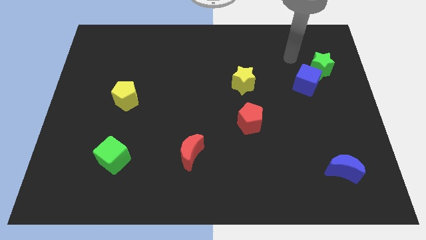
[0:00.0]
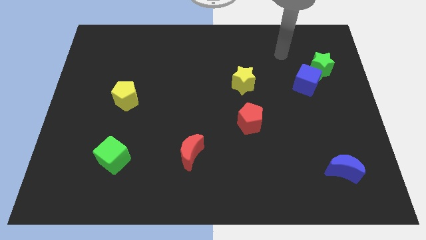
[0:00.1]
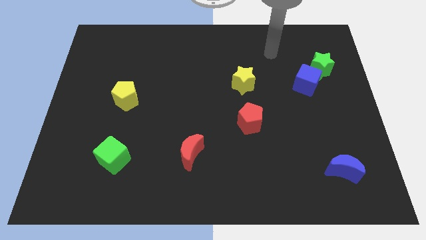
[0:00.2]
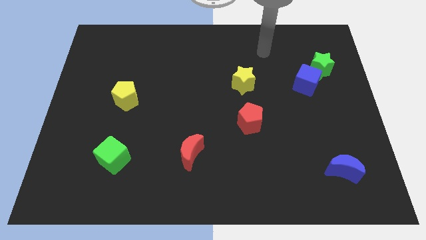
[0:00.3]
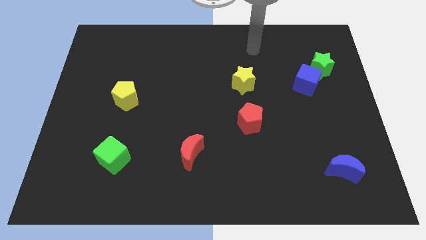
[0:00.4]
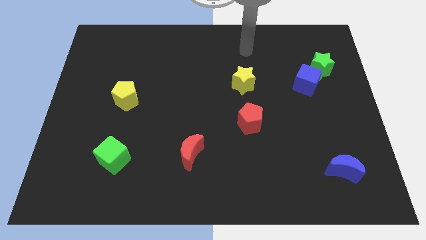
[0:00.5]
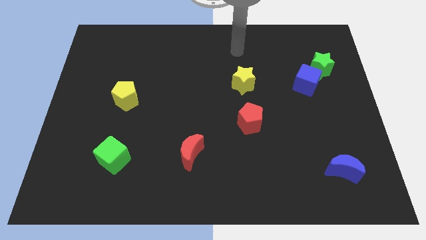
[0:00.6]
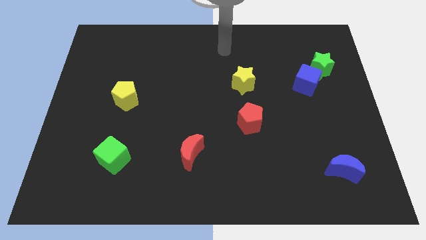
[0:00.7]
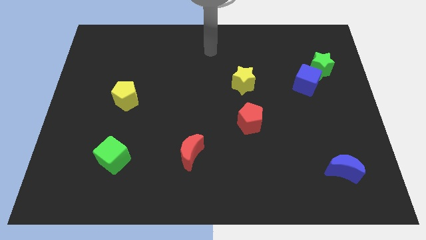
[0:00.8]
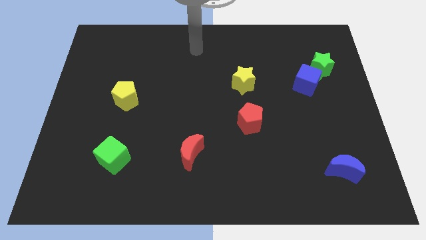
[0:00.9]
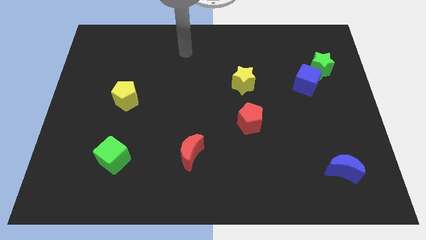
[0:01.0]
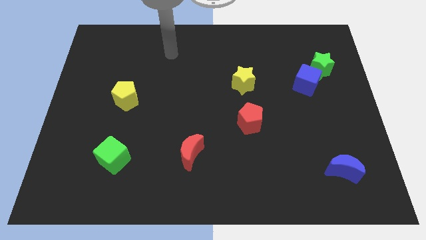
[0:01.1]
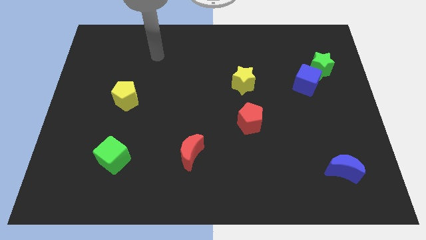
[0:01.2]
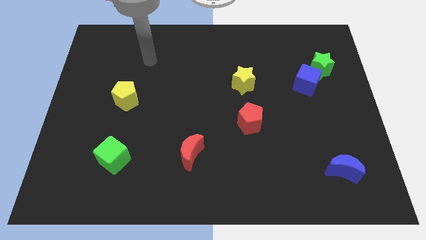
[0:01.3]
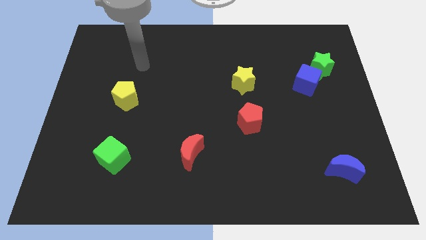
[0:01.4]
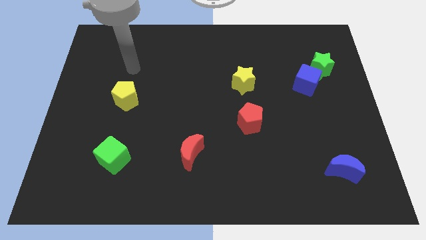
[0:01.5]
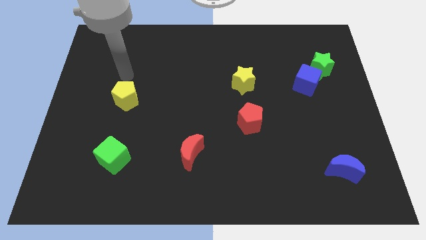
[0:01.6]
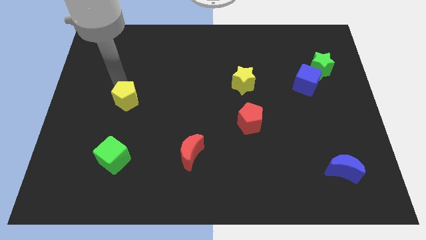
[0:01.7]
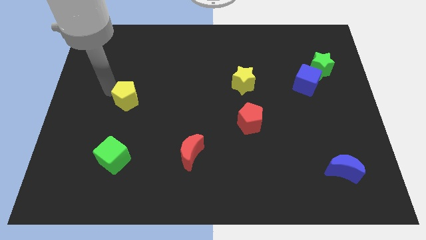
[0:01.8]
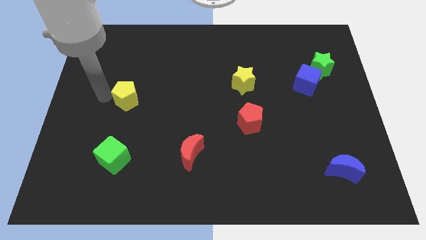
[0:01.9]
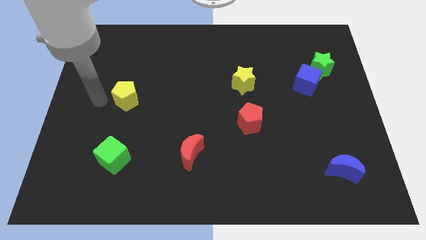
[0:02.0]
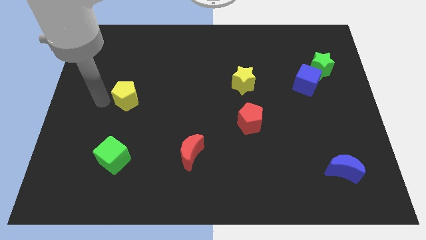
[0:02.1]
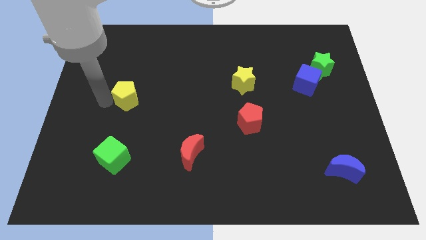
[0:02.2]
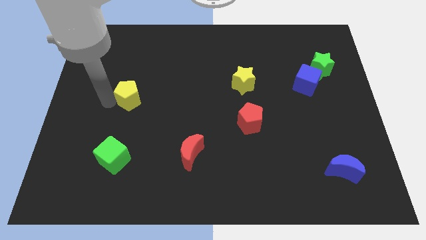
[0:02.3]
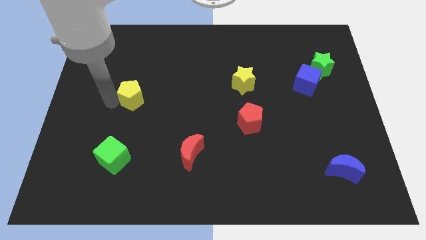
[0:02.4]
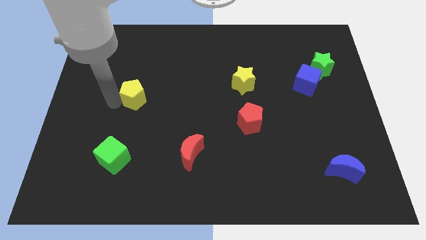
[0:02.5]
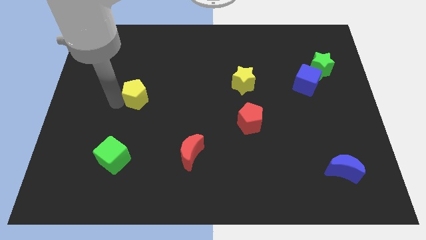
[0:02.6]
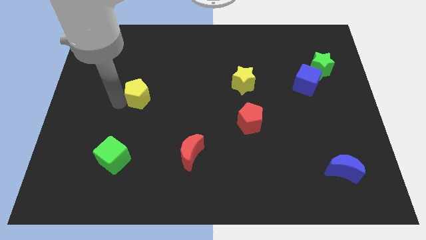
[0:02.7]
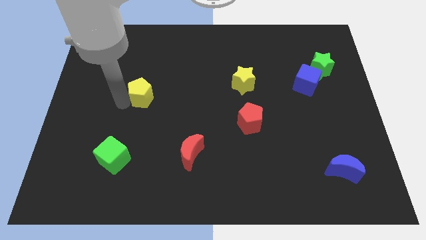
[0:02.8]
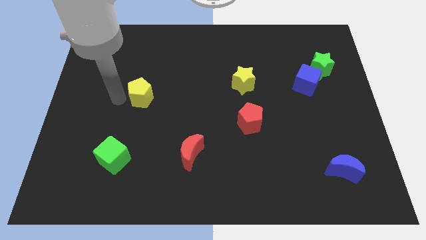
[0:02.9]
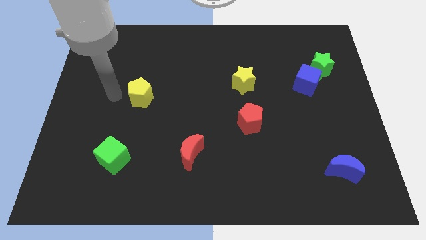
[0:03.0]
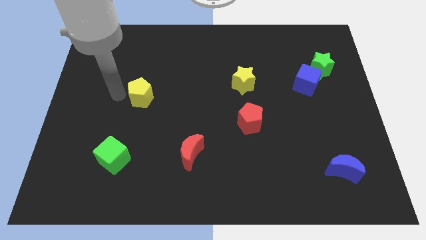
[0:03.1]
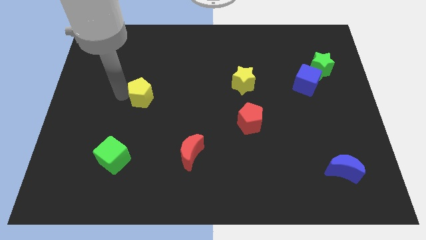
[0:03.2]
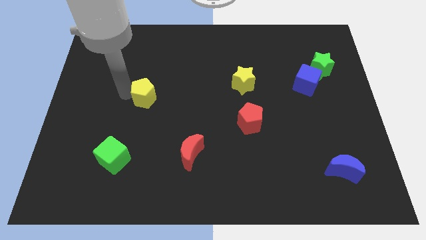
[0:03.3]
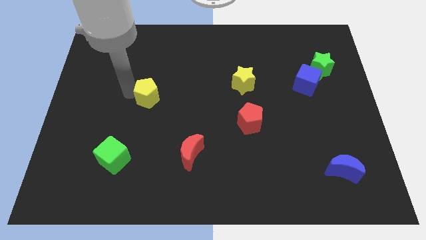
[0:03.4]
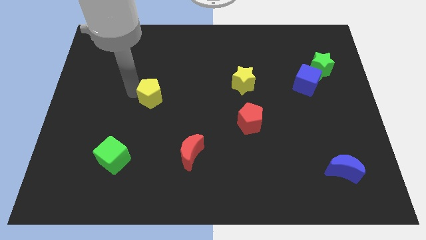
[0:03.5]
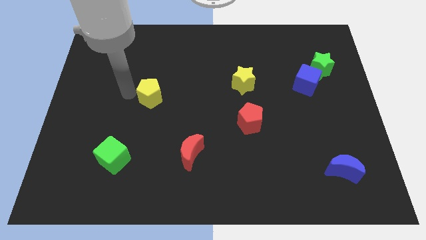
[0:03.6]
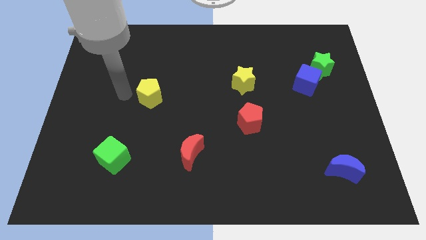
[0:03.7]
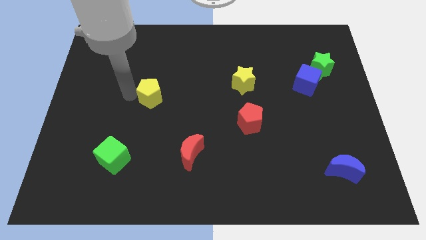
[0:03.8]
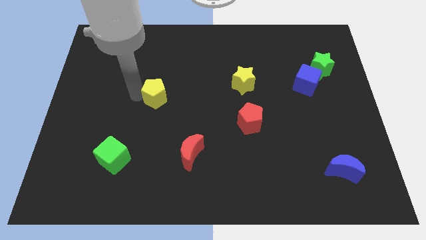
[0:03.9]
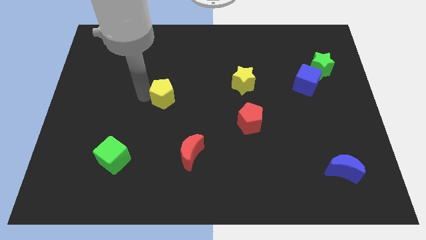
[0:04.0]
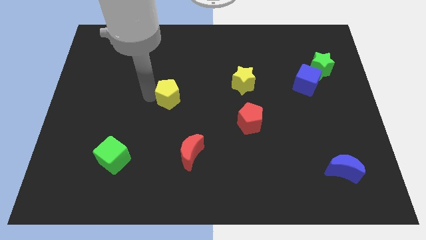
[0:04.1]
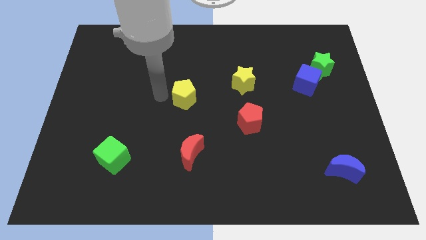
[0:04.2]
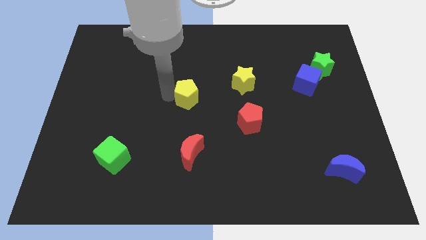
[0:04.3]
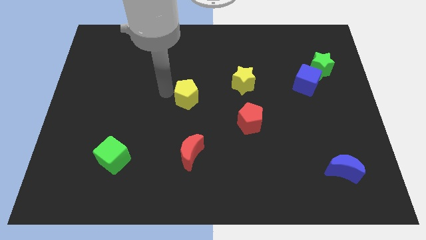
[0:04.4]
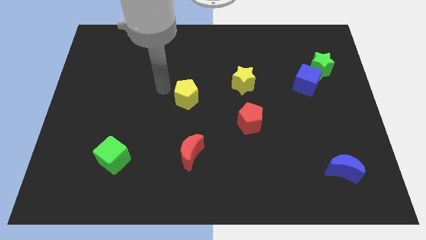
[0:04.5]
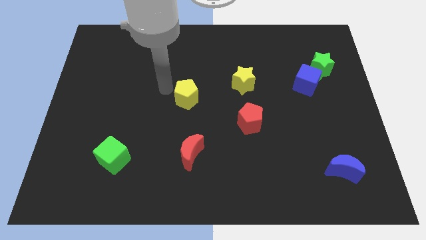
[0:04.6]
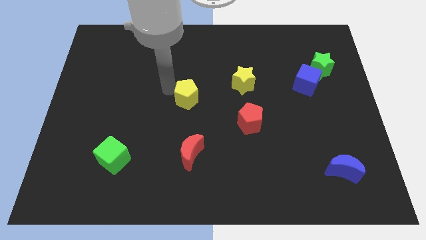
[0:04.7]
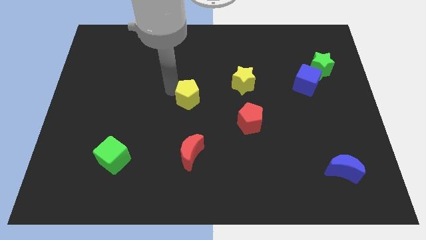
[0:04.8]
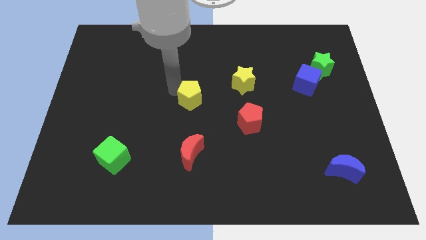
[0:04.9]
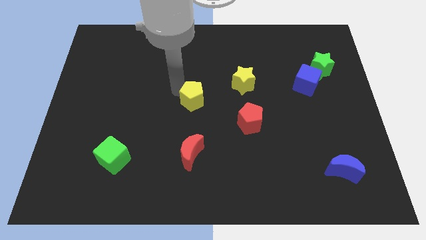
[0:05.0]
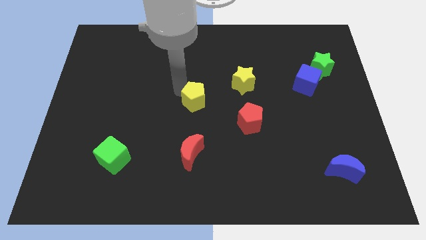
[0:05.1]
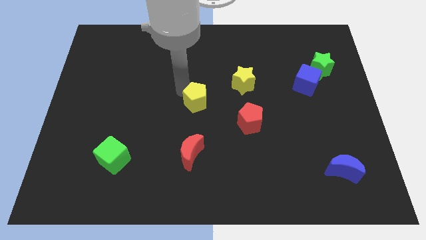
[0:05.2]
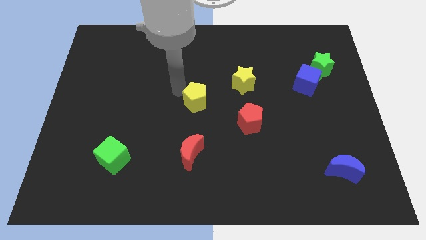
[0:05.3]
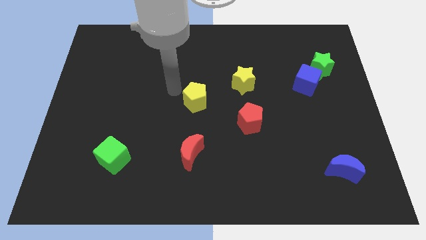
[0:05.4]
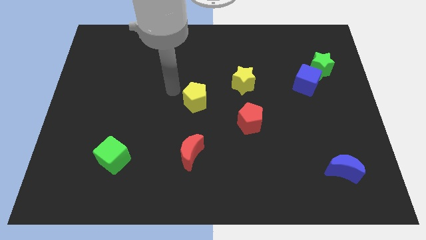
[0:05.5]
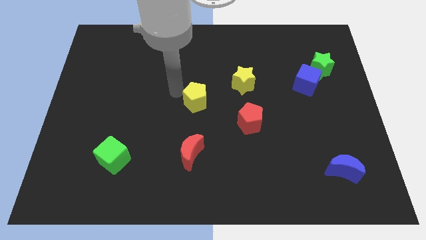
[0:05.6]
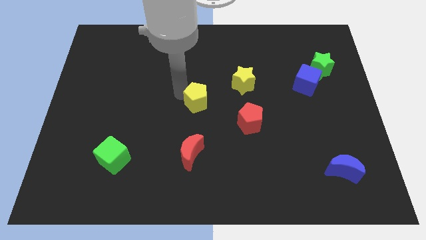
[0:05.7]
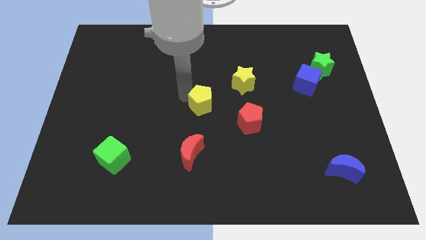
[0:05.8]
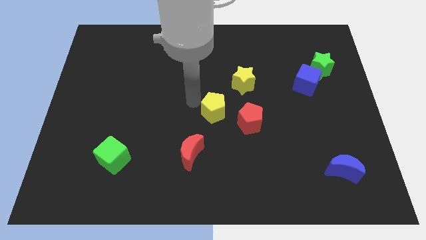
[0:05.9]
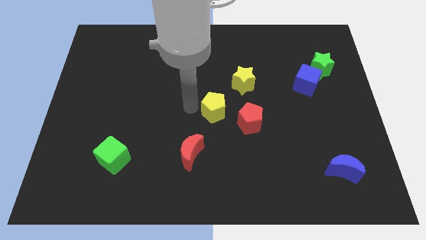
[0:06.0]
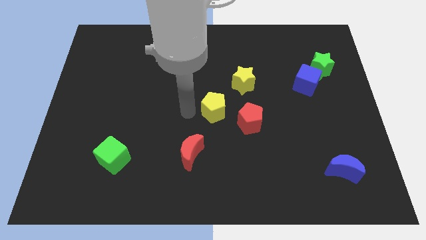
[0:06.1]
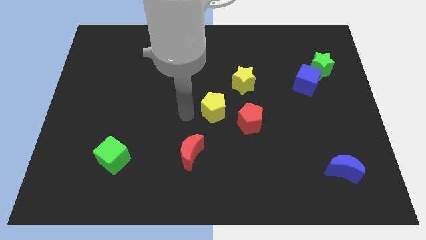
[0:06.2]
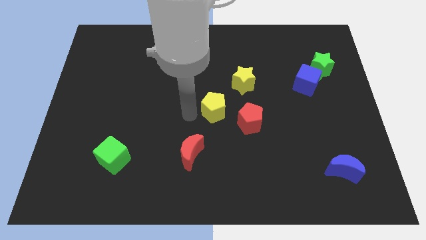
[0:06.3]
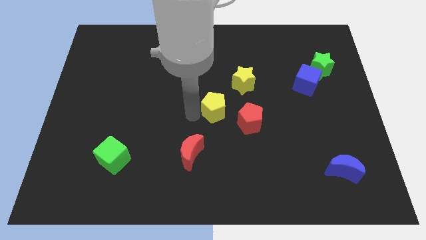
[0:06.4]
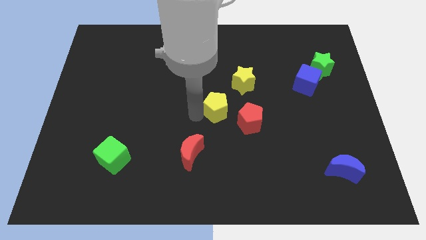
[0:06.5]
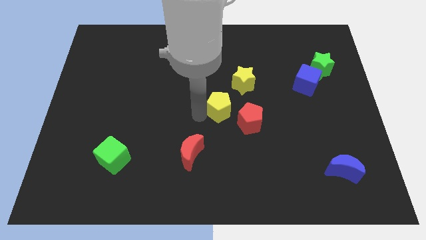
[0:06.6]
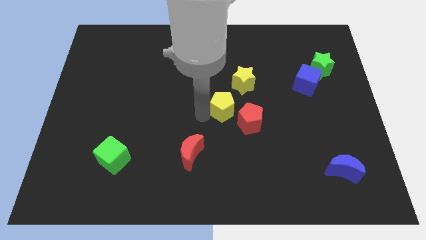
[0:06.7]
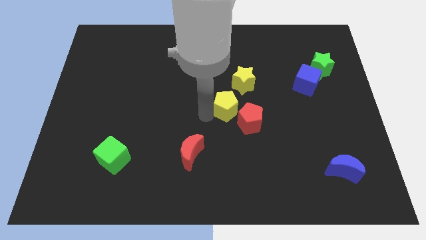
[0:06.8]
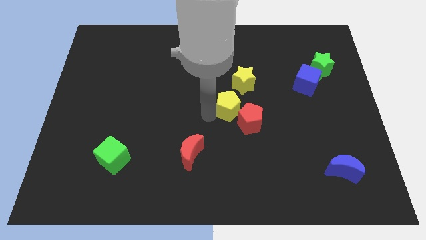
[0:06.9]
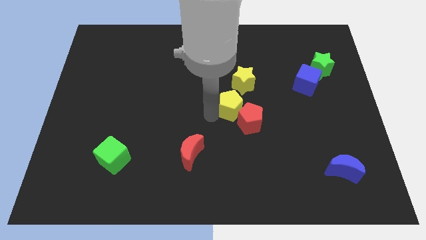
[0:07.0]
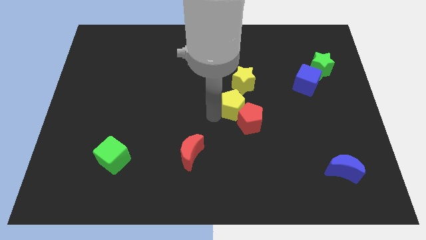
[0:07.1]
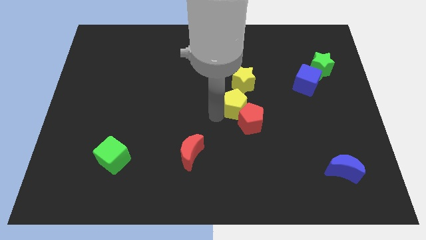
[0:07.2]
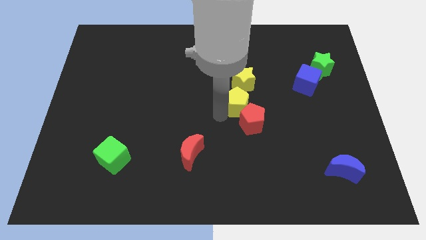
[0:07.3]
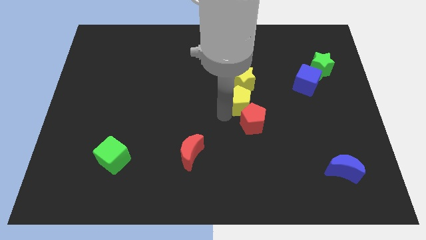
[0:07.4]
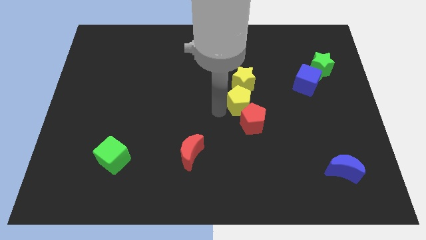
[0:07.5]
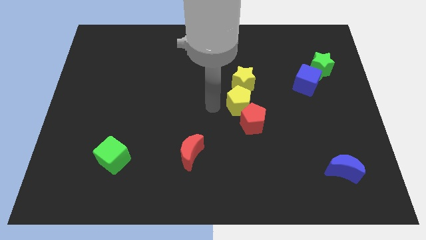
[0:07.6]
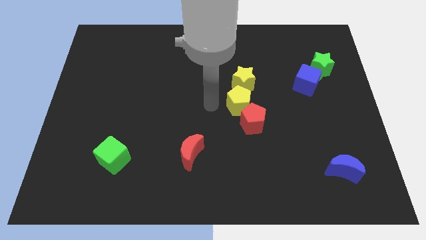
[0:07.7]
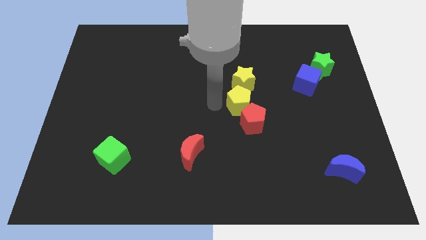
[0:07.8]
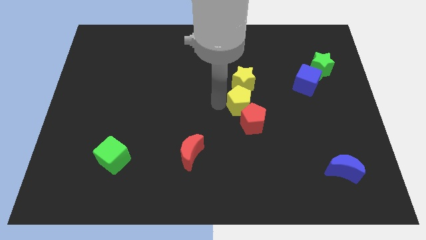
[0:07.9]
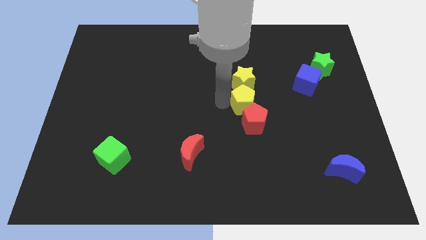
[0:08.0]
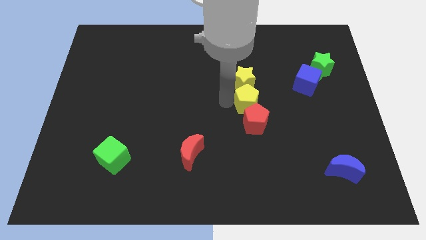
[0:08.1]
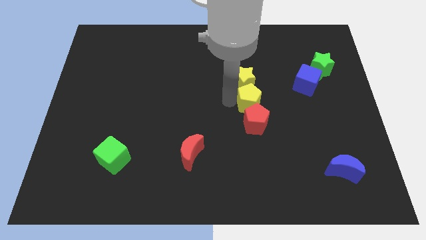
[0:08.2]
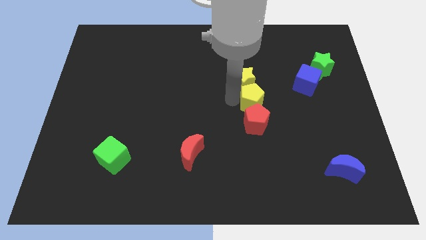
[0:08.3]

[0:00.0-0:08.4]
put the yellow pentagon to the top right side of the red pentagon
